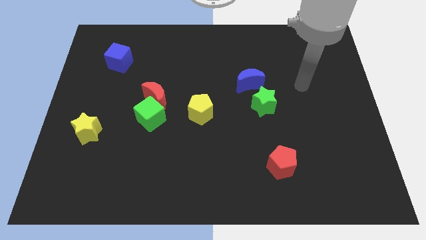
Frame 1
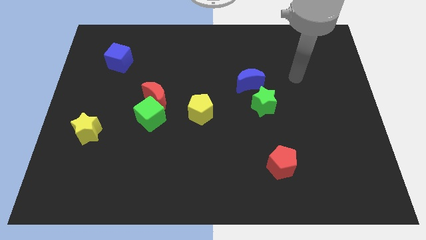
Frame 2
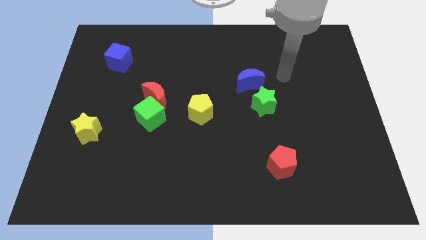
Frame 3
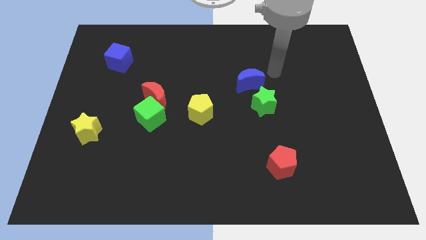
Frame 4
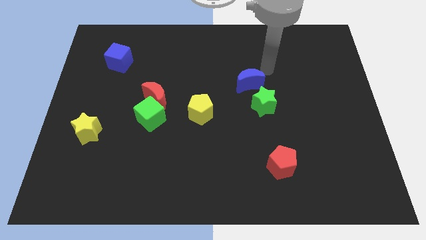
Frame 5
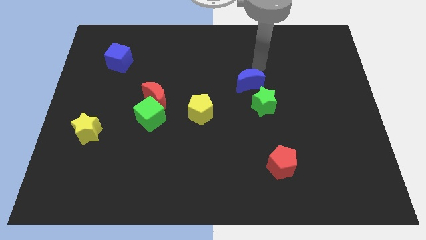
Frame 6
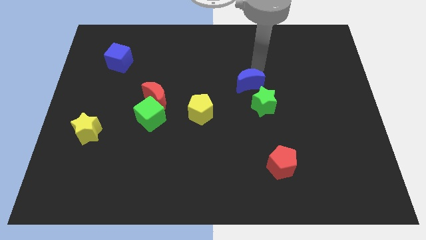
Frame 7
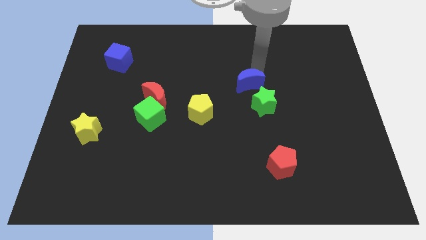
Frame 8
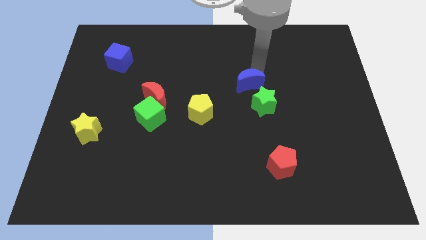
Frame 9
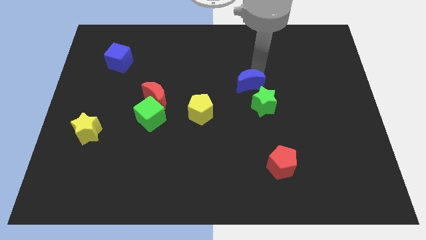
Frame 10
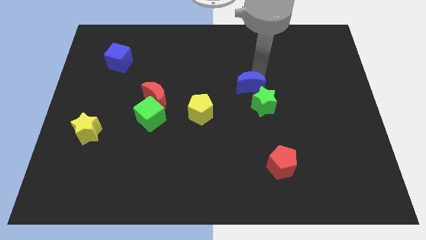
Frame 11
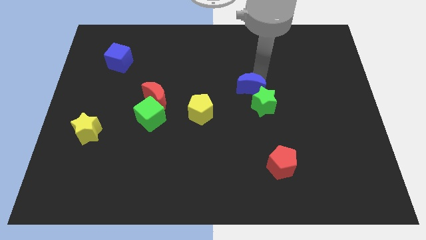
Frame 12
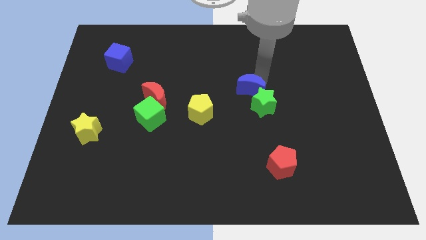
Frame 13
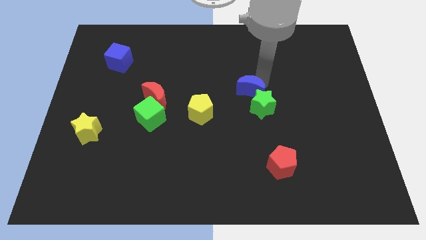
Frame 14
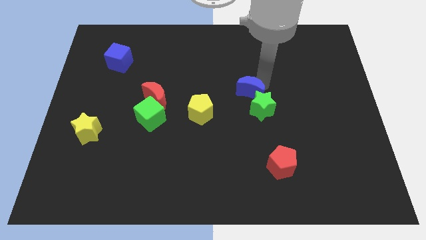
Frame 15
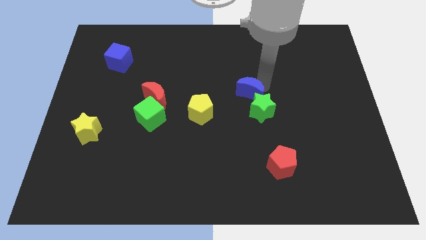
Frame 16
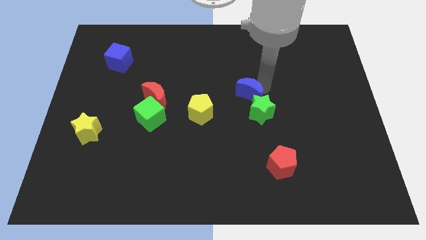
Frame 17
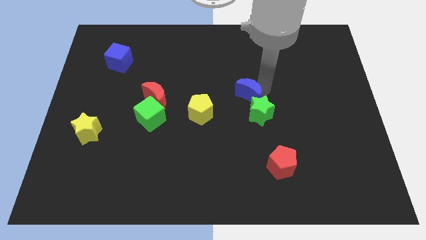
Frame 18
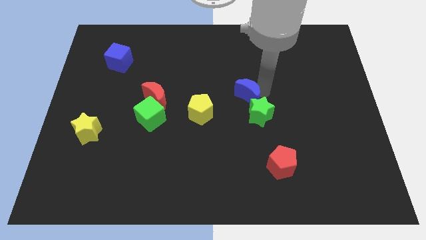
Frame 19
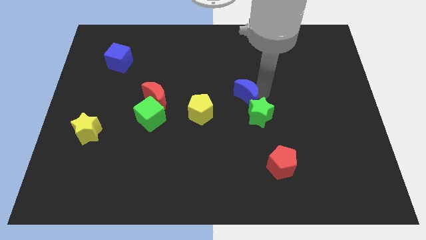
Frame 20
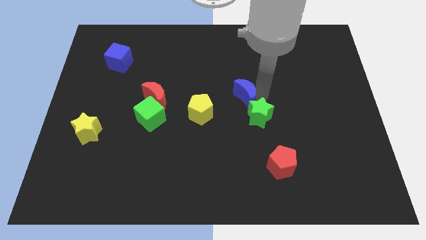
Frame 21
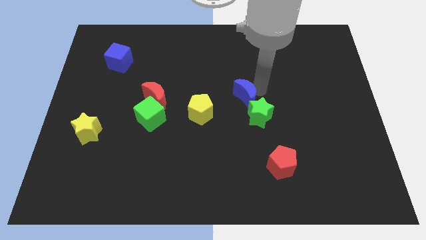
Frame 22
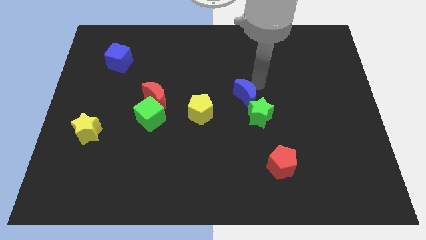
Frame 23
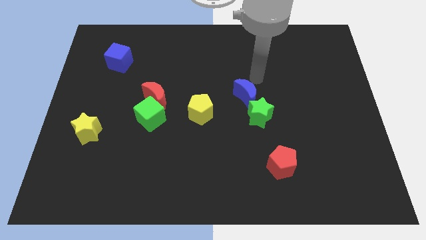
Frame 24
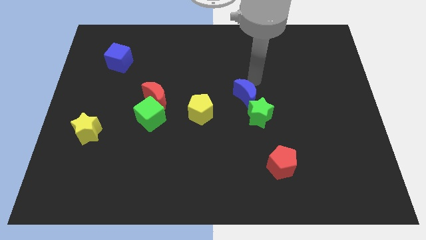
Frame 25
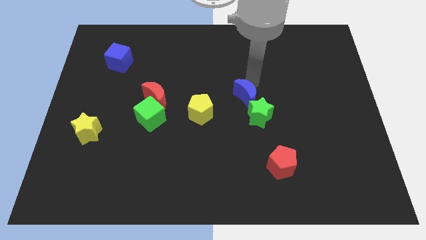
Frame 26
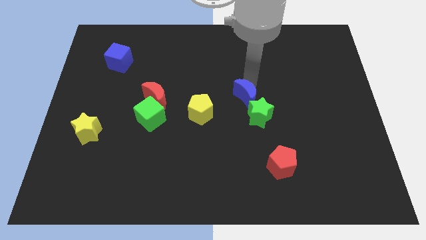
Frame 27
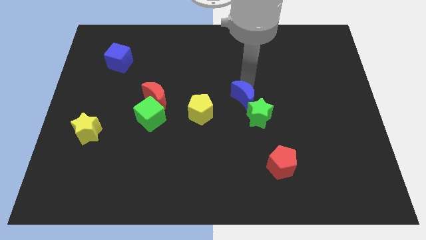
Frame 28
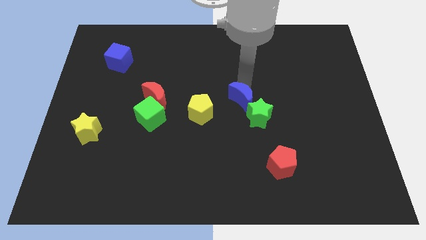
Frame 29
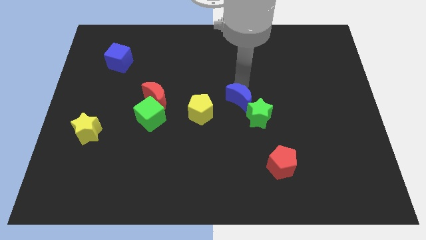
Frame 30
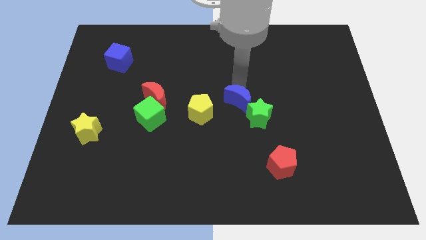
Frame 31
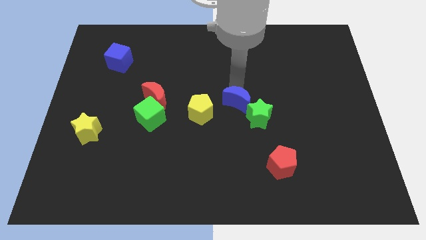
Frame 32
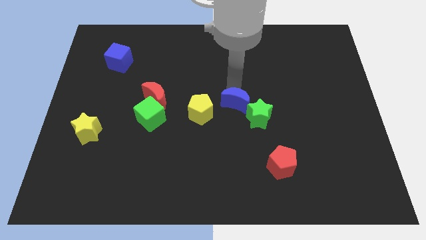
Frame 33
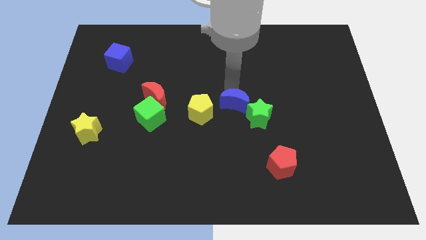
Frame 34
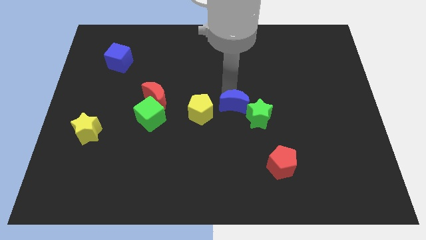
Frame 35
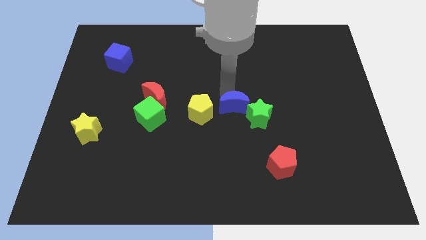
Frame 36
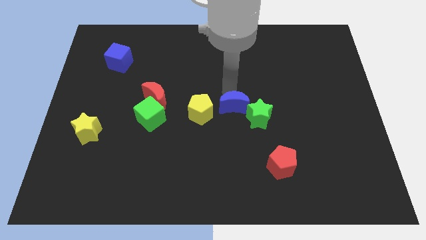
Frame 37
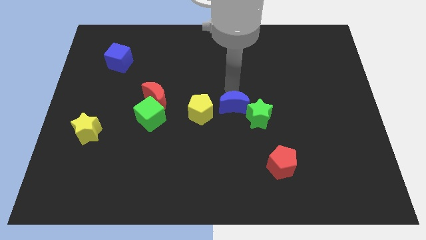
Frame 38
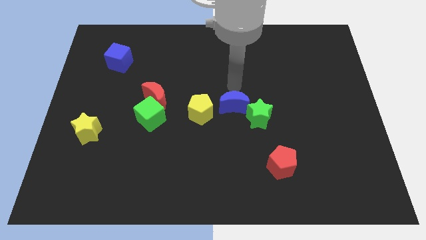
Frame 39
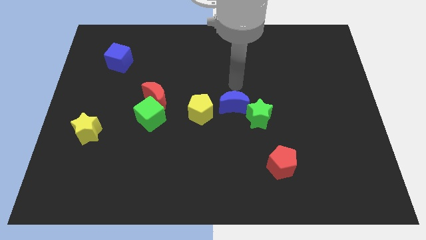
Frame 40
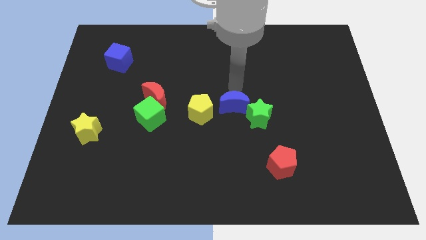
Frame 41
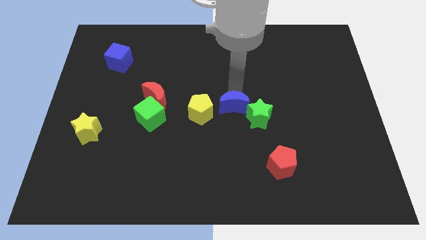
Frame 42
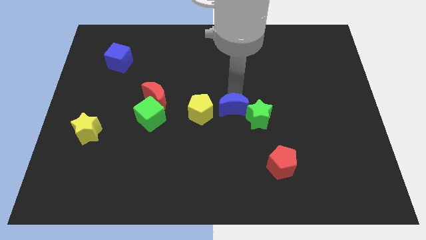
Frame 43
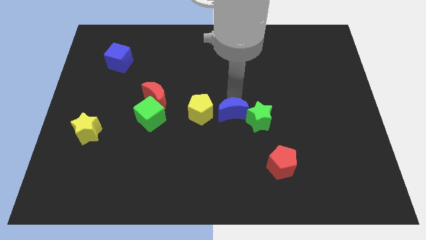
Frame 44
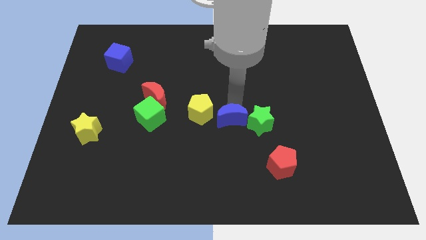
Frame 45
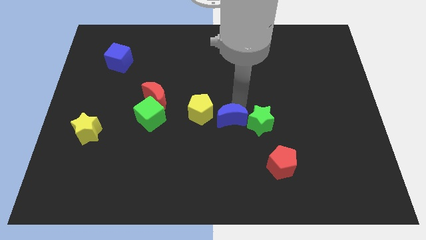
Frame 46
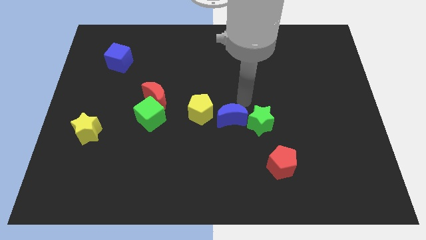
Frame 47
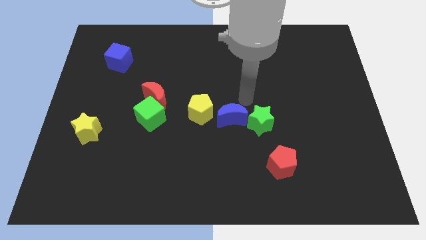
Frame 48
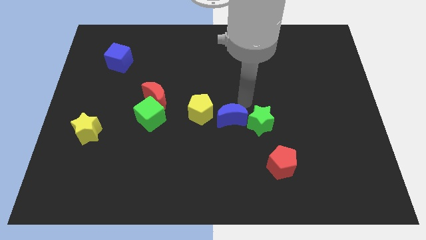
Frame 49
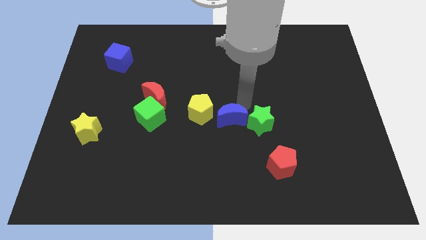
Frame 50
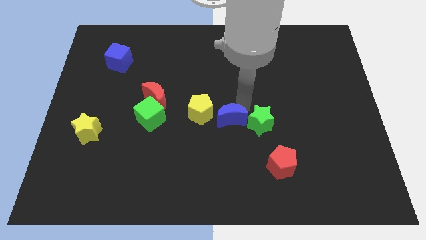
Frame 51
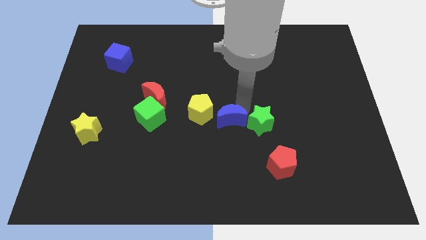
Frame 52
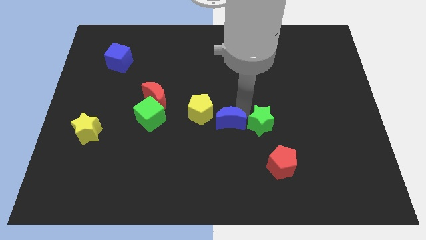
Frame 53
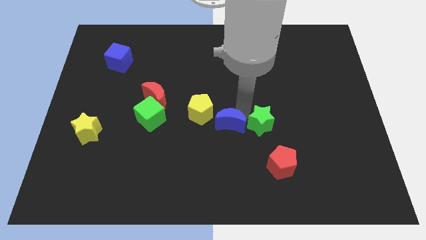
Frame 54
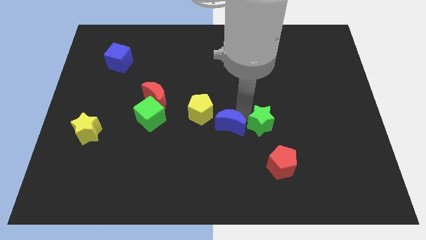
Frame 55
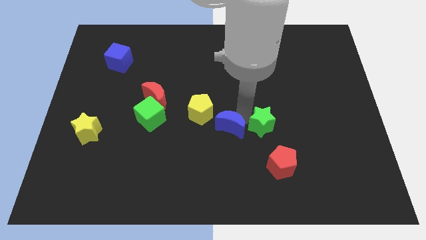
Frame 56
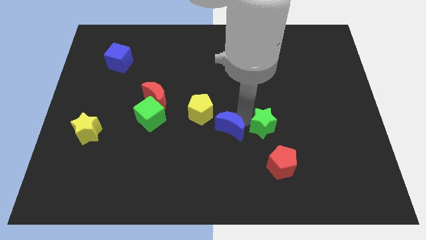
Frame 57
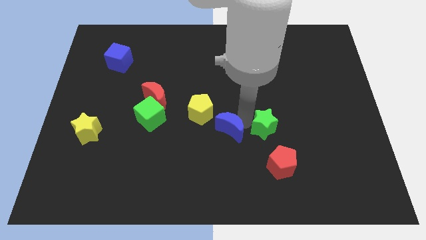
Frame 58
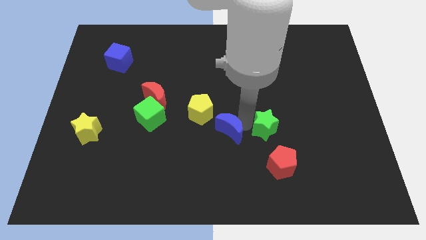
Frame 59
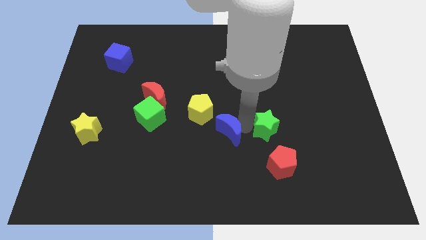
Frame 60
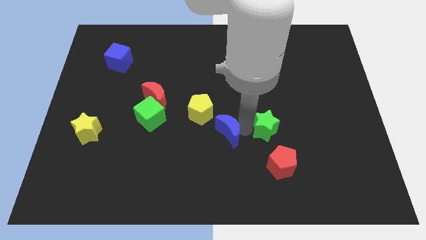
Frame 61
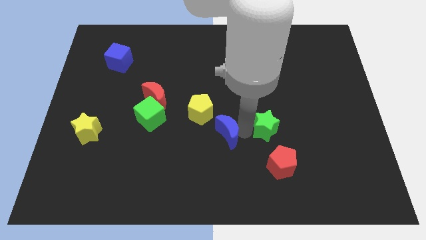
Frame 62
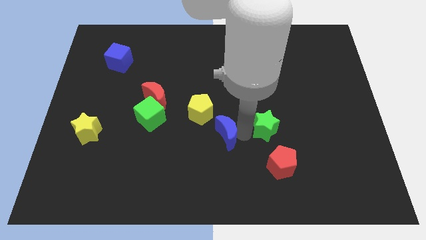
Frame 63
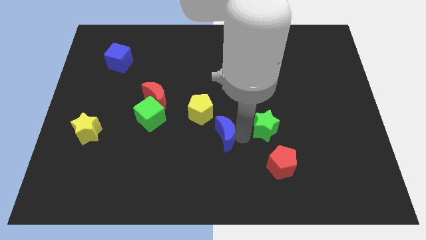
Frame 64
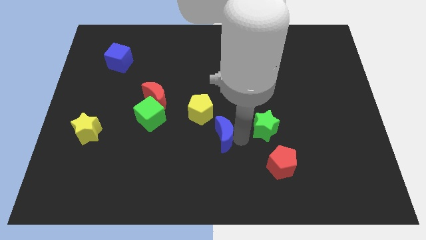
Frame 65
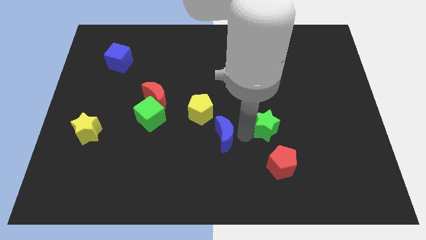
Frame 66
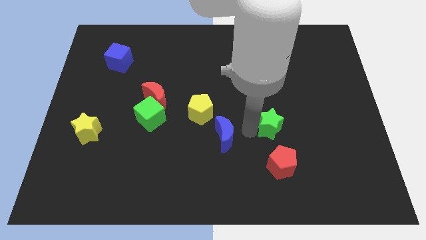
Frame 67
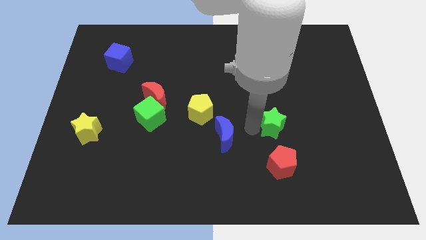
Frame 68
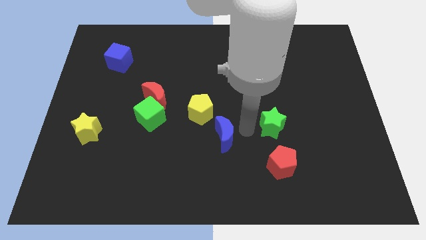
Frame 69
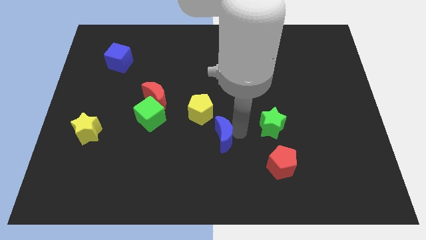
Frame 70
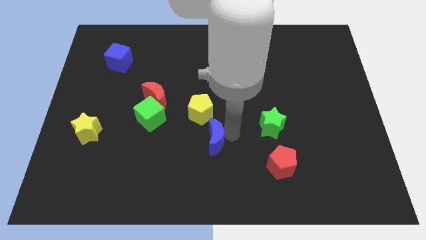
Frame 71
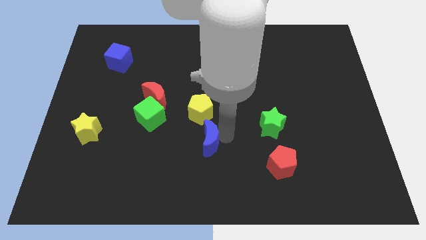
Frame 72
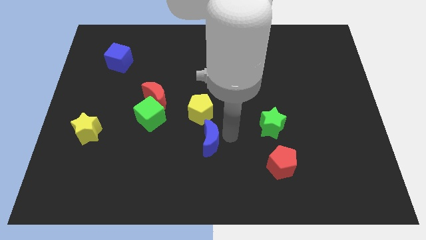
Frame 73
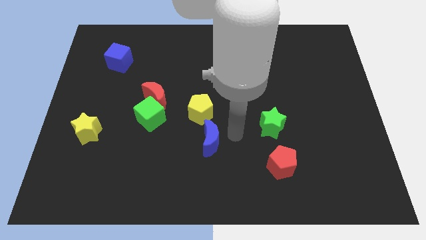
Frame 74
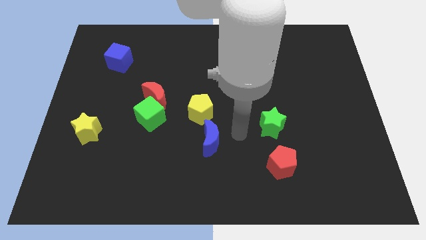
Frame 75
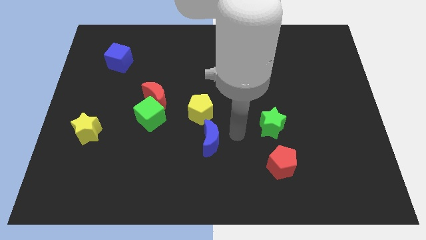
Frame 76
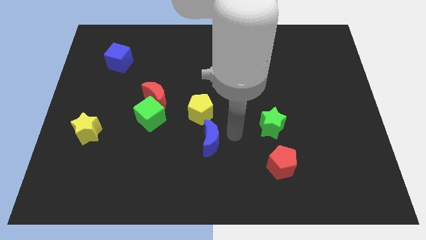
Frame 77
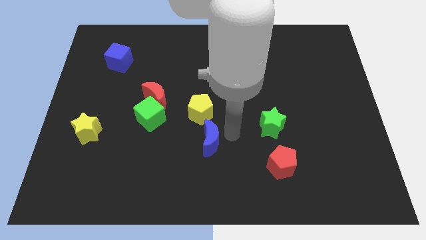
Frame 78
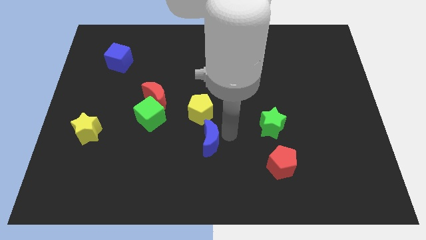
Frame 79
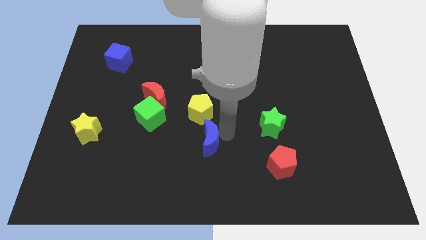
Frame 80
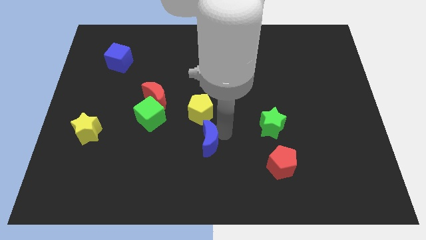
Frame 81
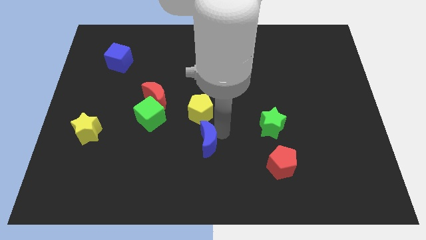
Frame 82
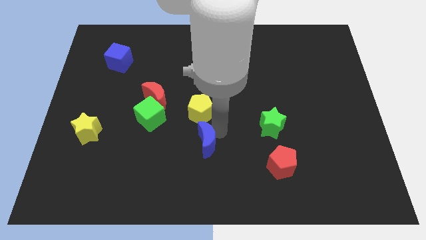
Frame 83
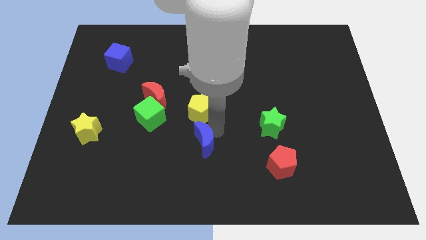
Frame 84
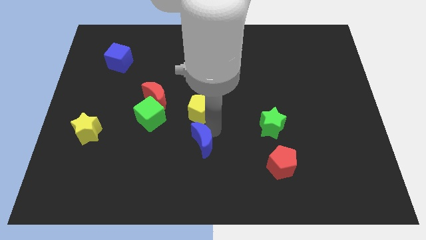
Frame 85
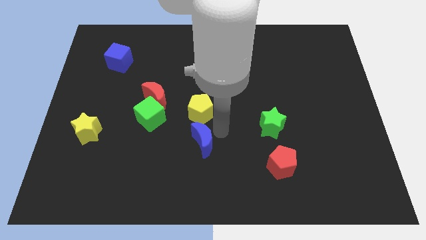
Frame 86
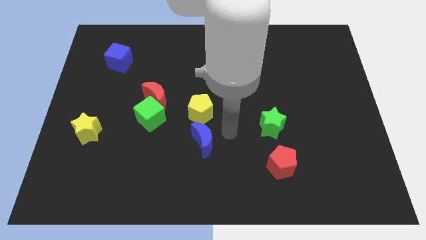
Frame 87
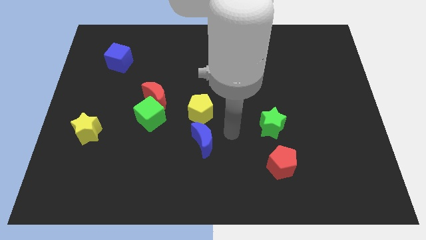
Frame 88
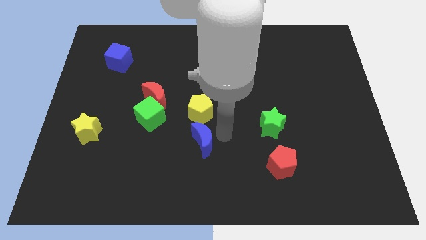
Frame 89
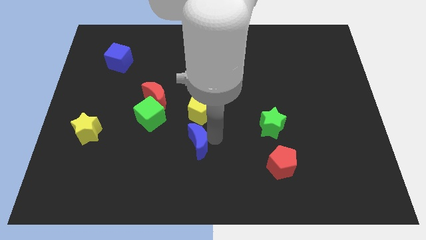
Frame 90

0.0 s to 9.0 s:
push the blue moon down and left
